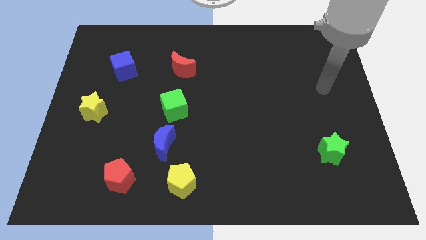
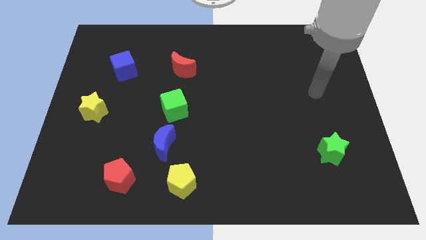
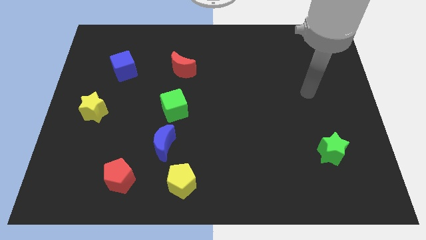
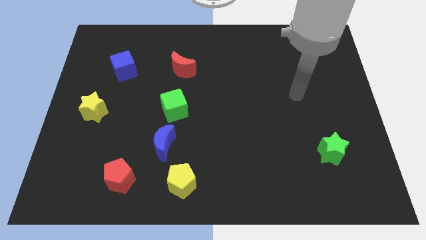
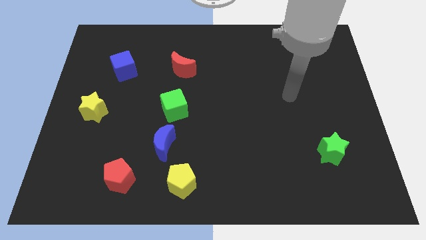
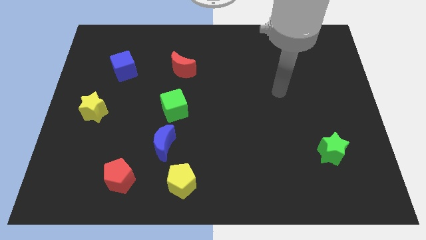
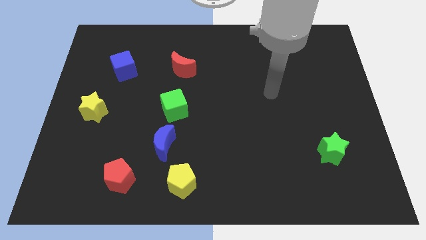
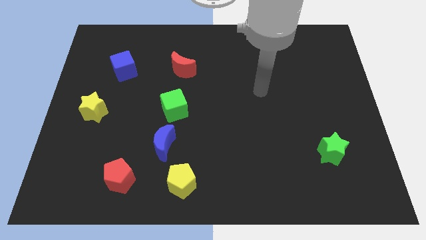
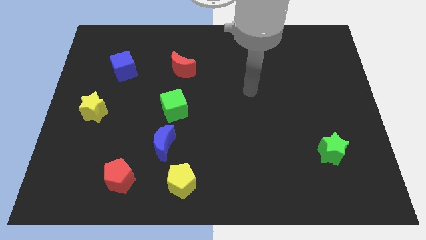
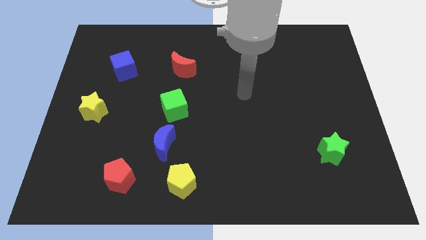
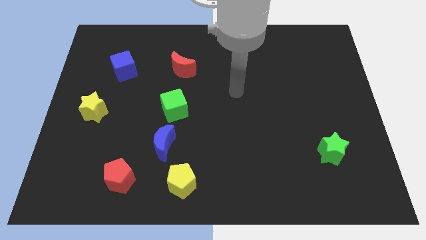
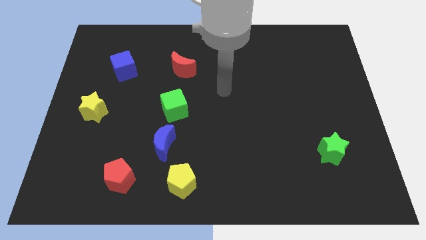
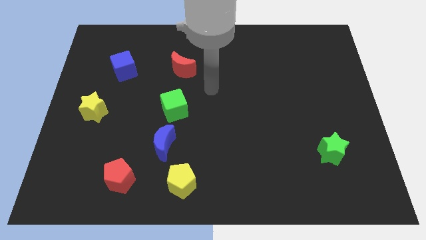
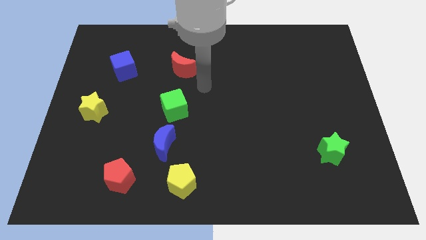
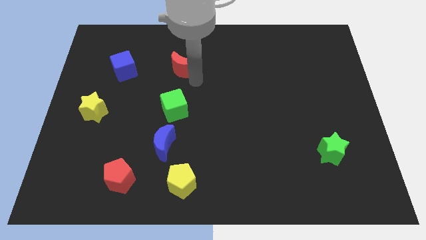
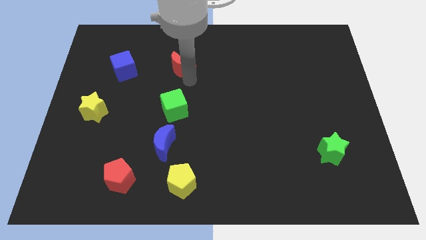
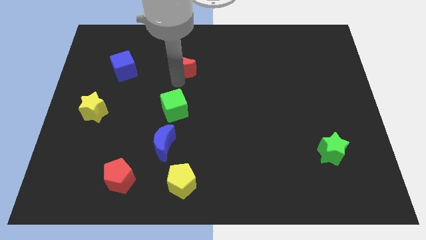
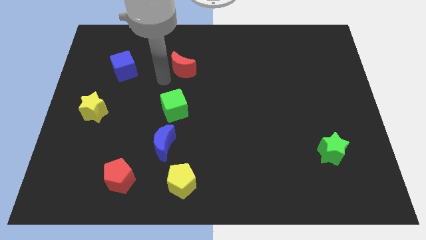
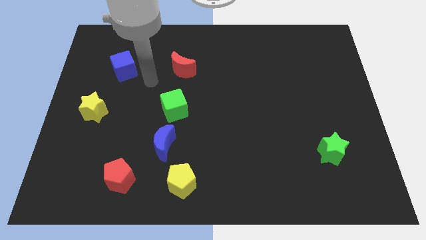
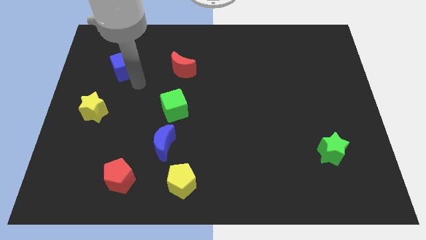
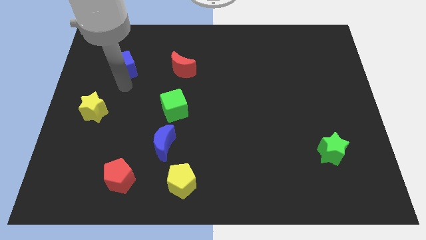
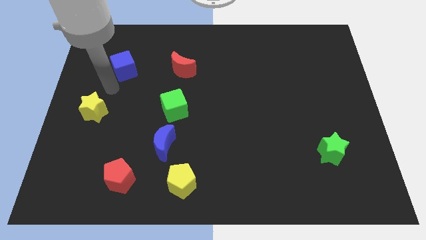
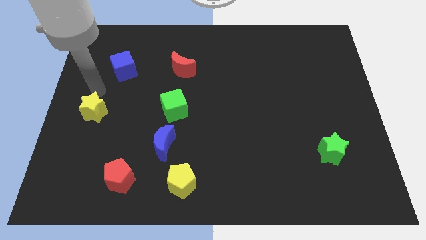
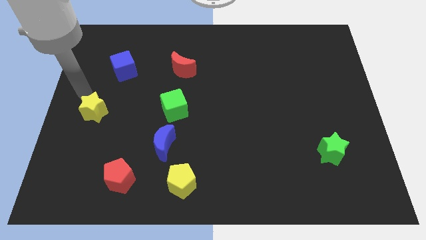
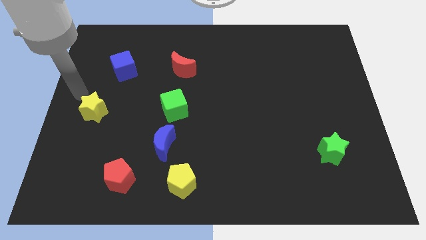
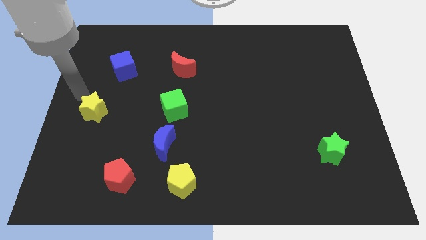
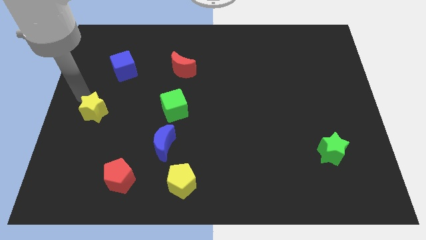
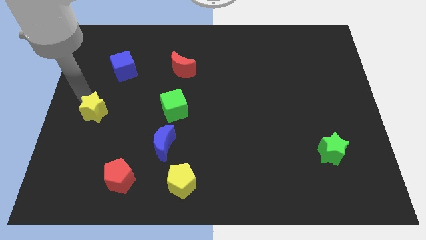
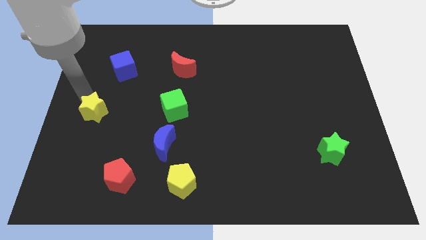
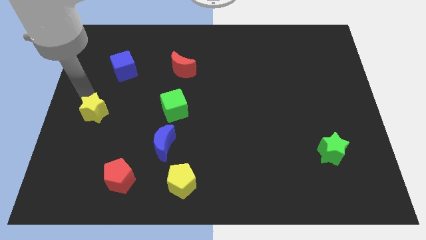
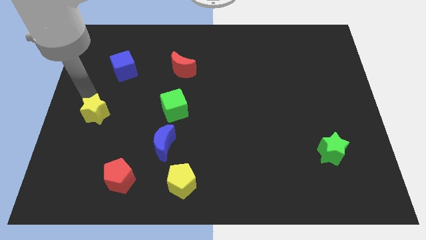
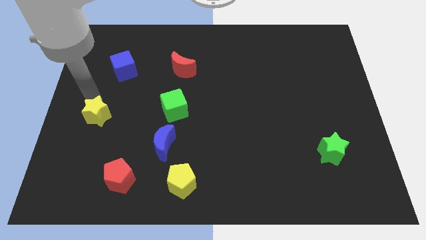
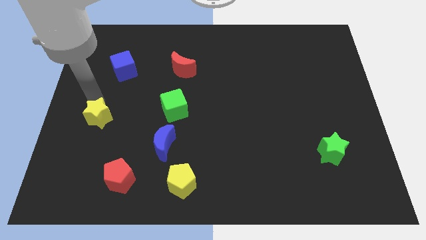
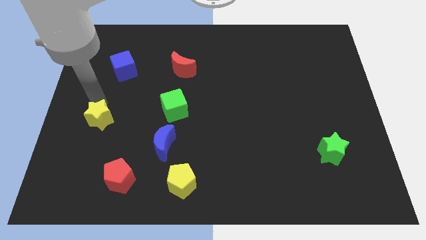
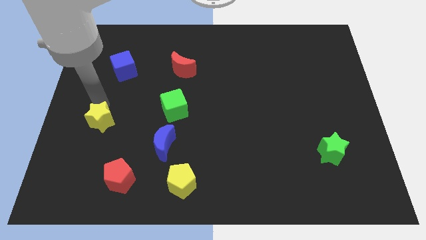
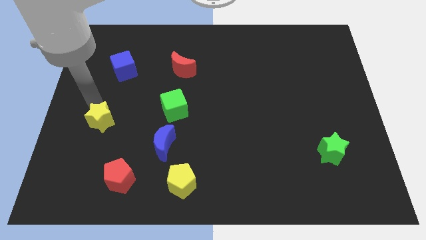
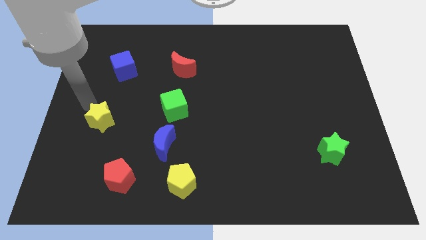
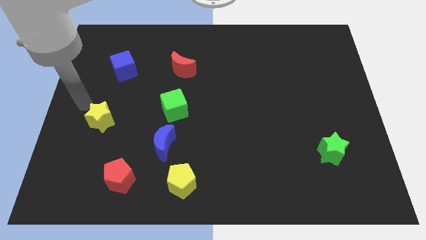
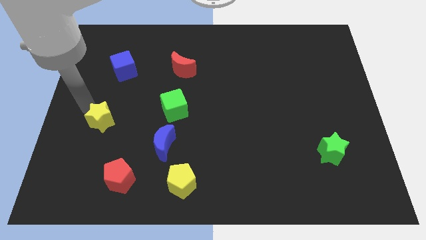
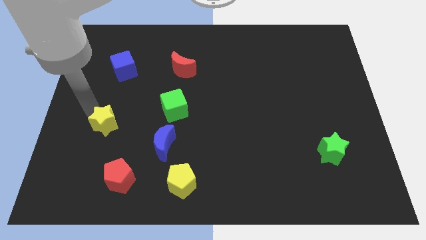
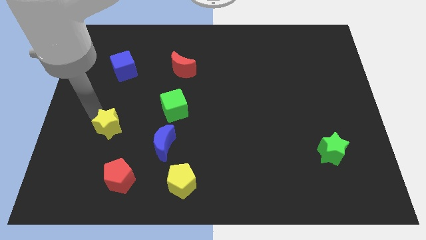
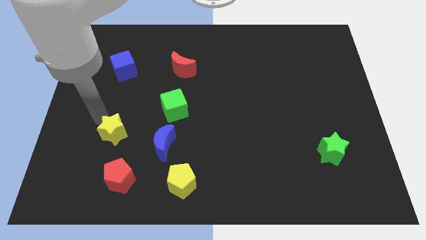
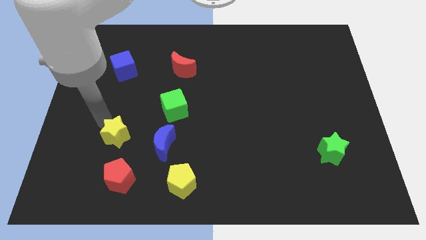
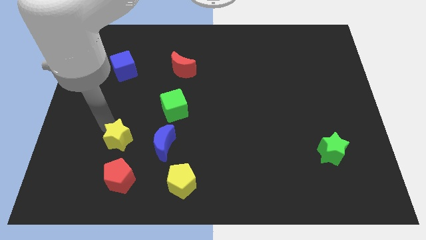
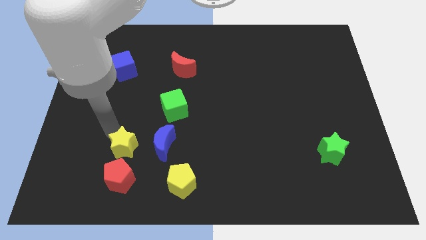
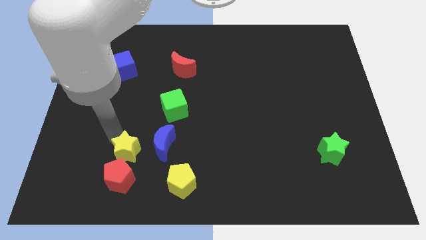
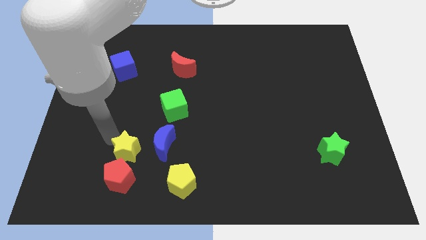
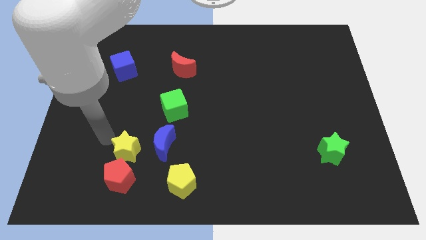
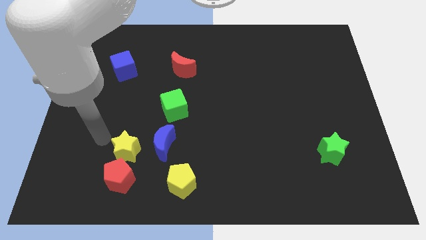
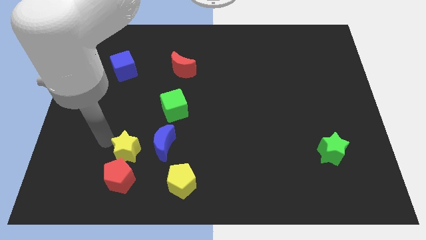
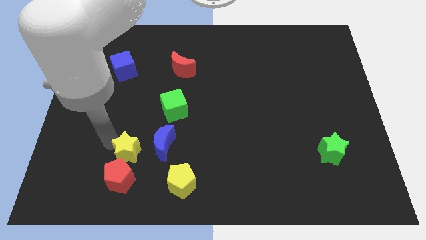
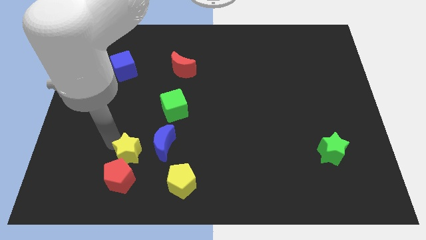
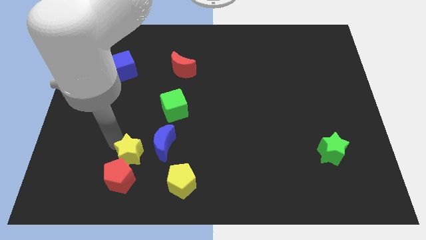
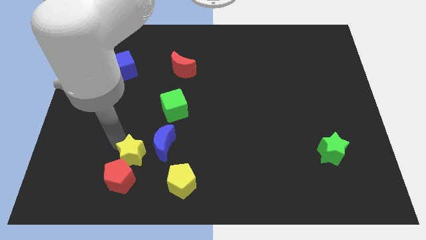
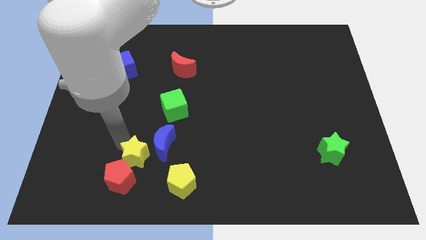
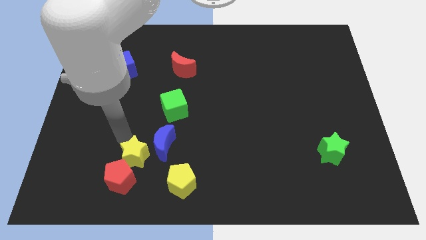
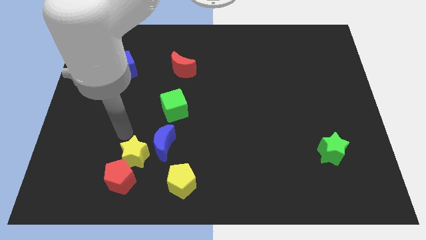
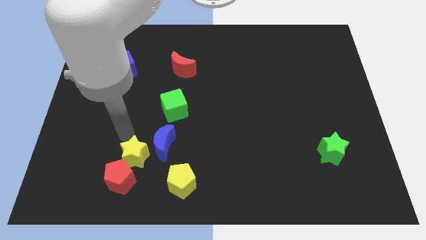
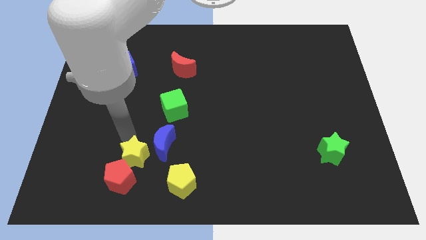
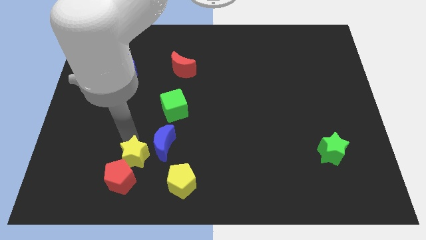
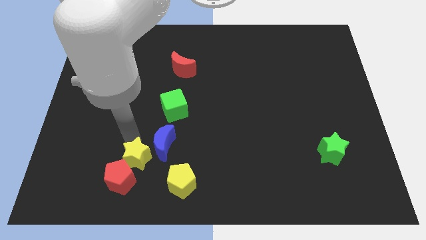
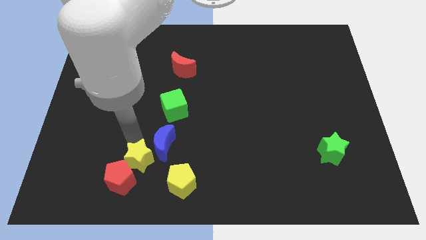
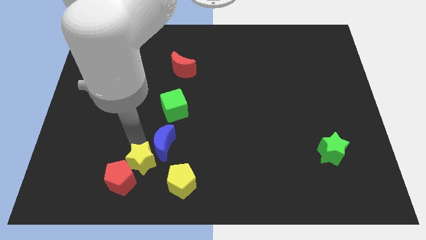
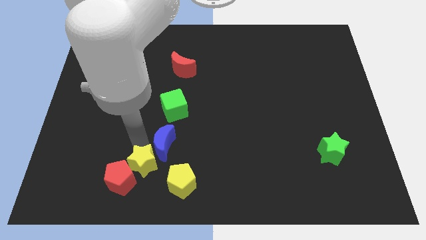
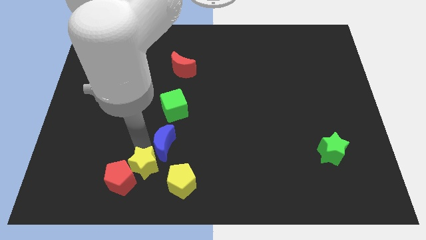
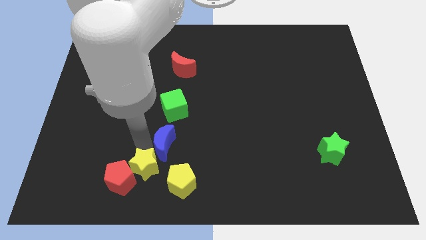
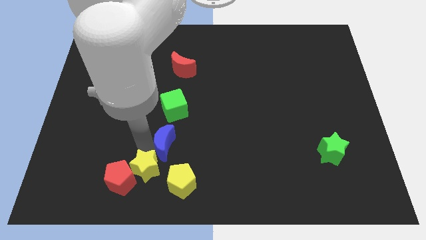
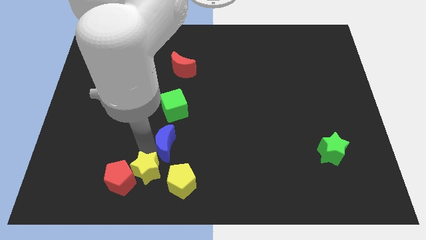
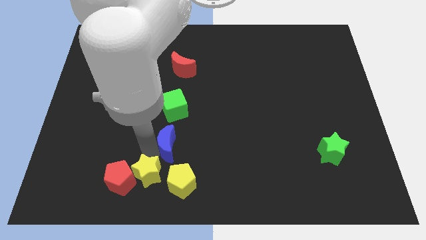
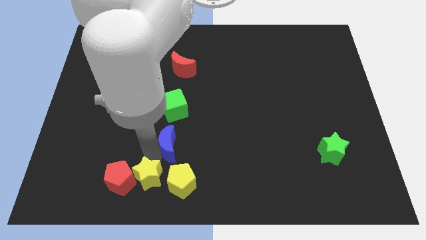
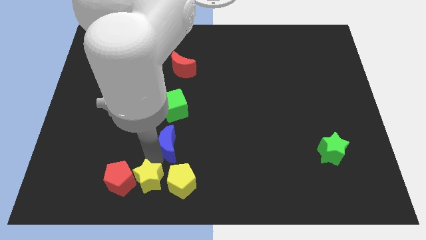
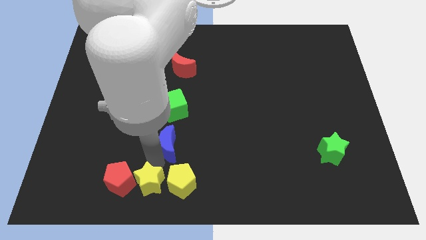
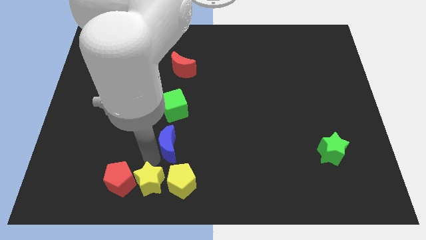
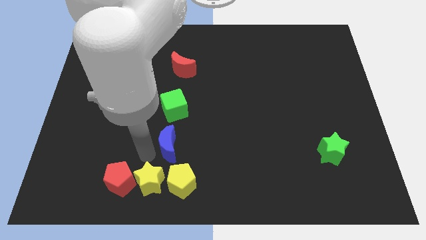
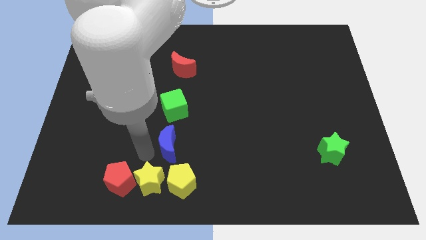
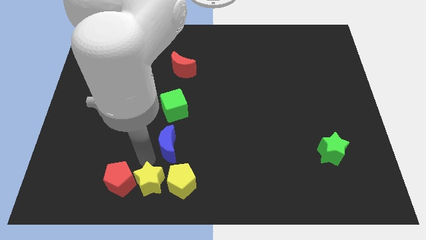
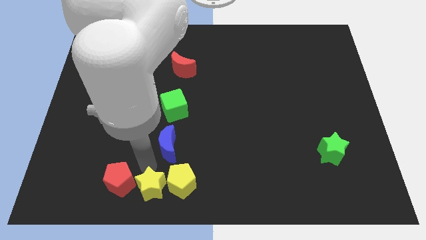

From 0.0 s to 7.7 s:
put the yellow star to the bottom
